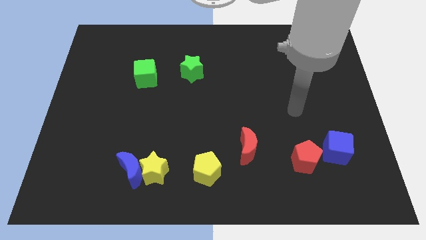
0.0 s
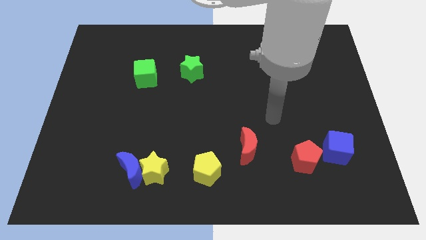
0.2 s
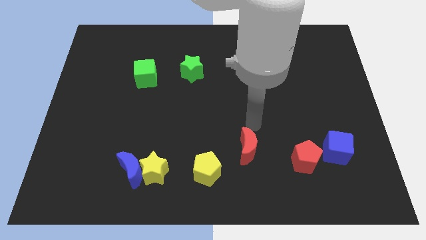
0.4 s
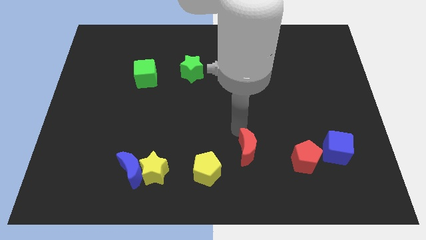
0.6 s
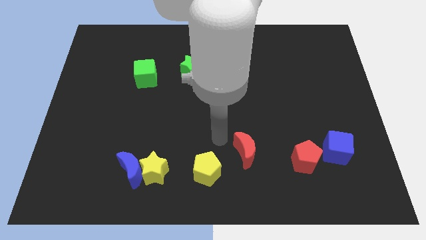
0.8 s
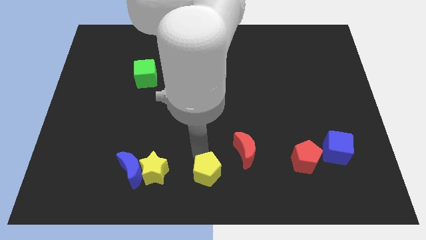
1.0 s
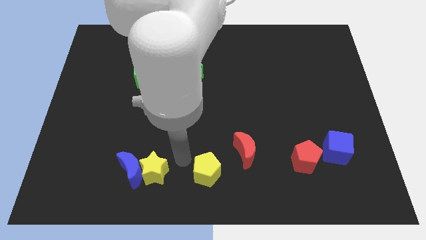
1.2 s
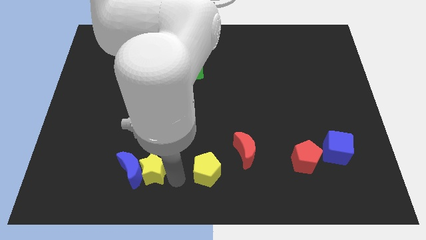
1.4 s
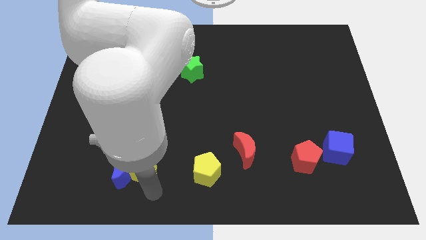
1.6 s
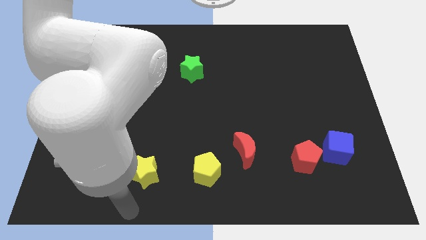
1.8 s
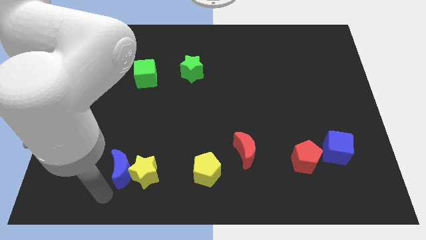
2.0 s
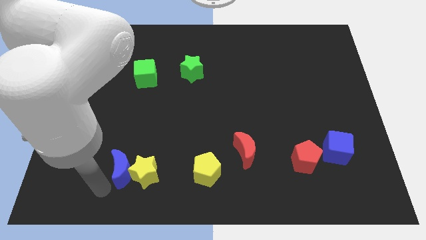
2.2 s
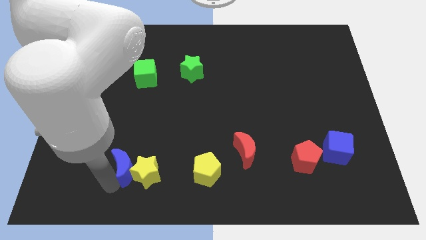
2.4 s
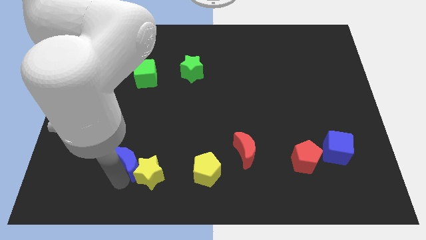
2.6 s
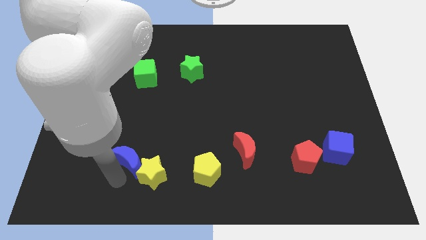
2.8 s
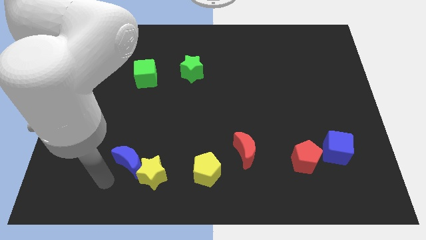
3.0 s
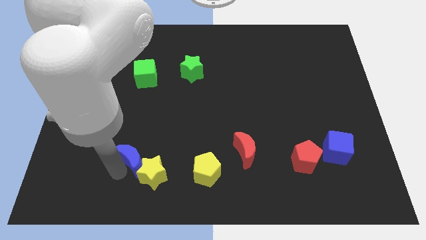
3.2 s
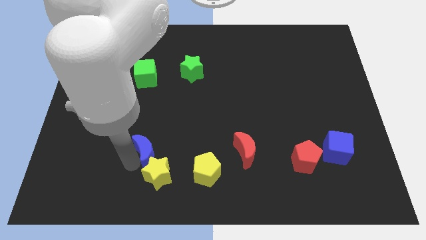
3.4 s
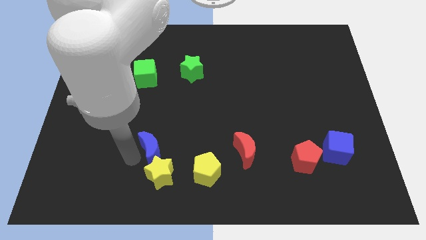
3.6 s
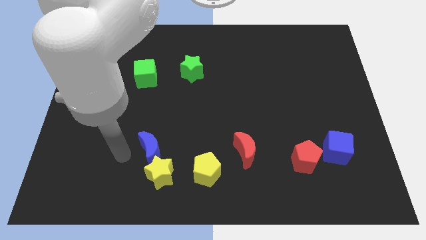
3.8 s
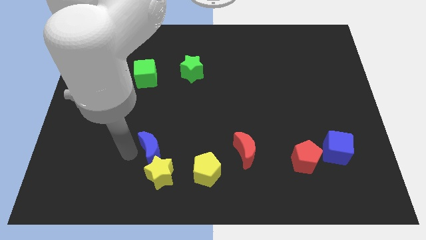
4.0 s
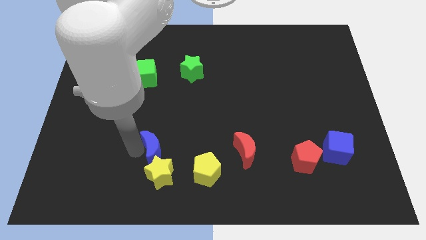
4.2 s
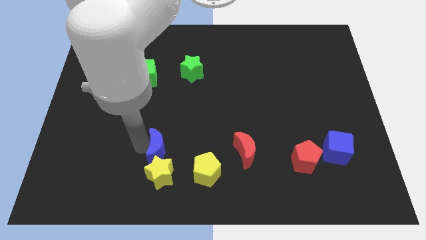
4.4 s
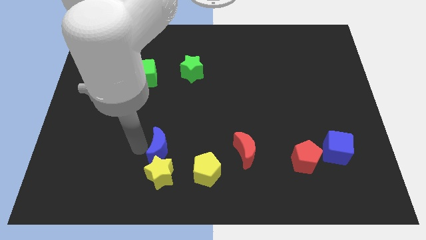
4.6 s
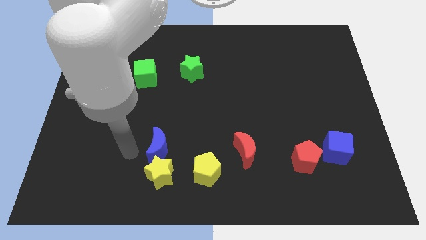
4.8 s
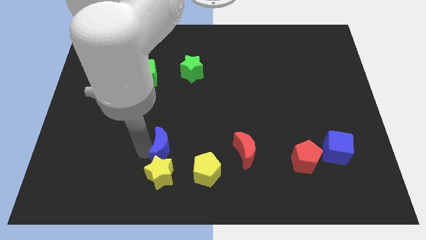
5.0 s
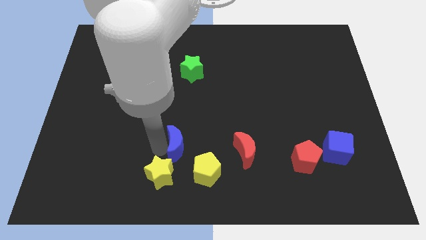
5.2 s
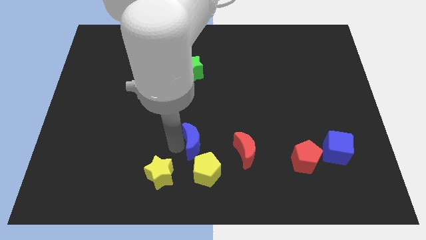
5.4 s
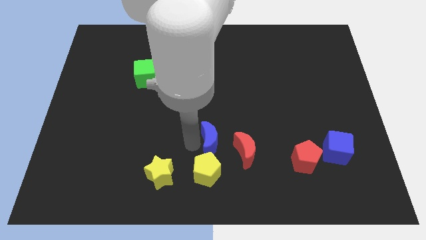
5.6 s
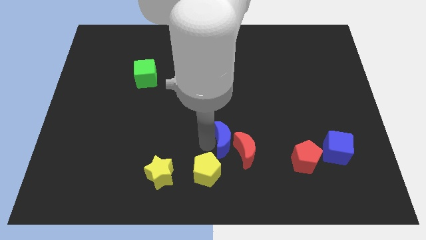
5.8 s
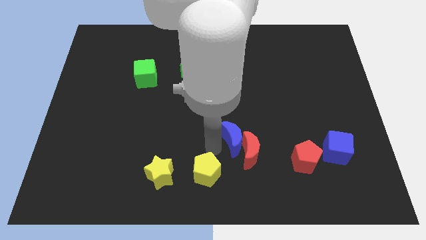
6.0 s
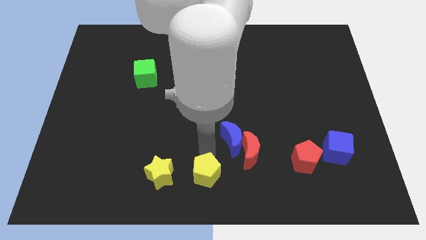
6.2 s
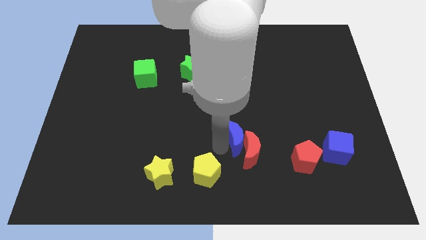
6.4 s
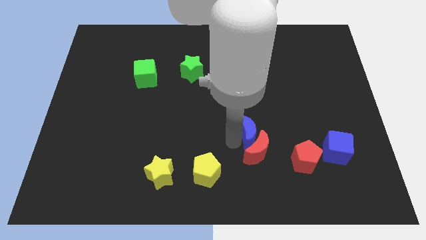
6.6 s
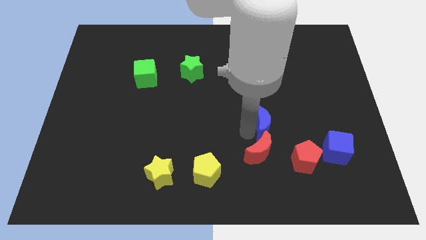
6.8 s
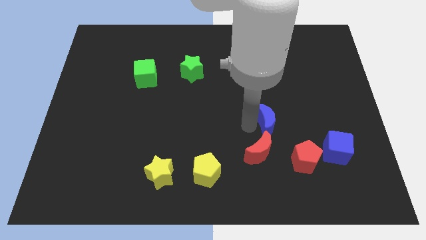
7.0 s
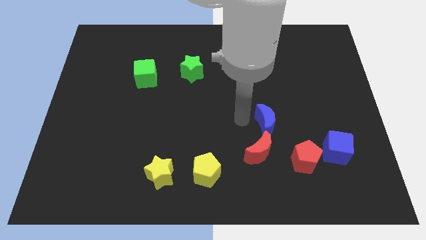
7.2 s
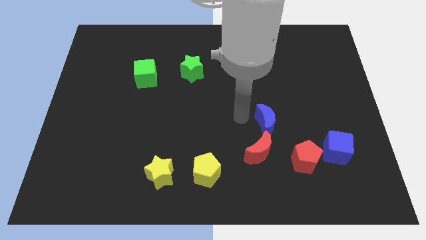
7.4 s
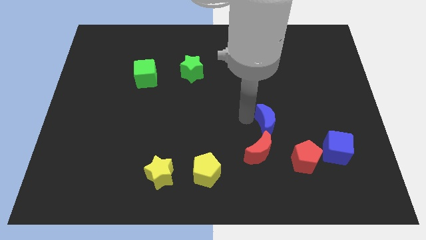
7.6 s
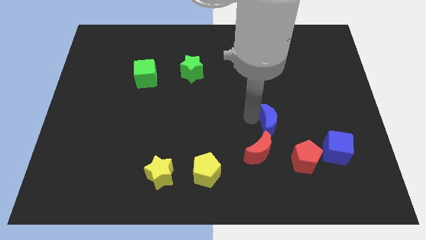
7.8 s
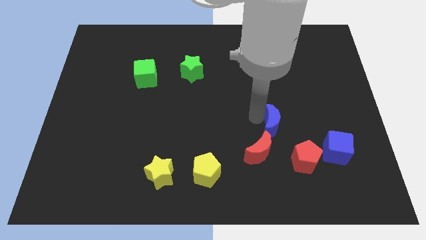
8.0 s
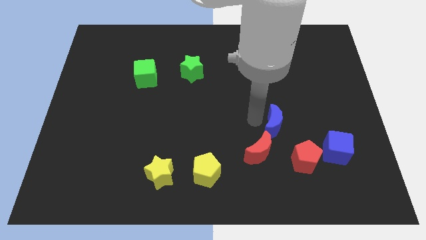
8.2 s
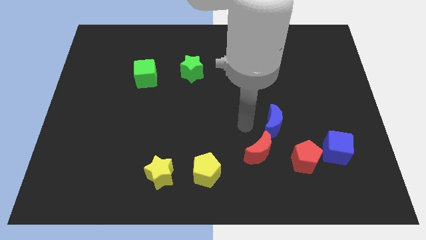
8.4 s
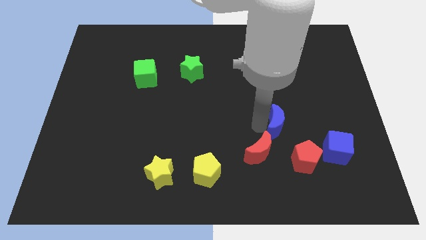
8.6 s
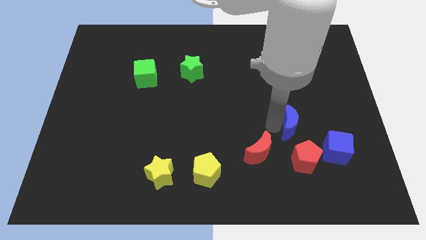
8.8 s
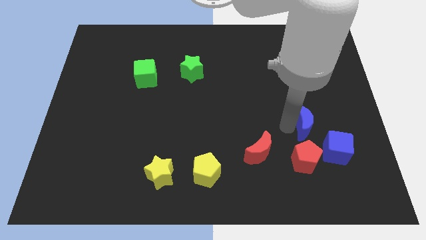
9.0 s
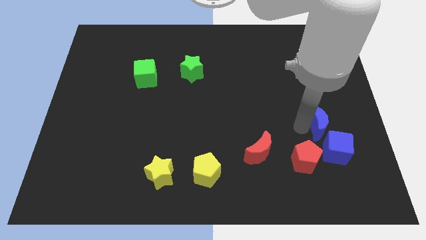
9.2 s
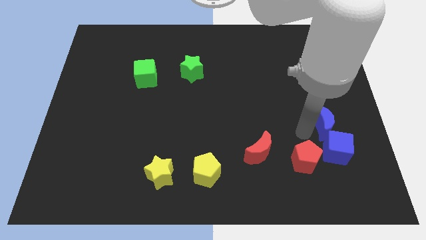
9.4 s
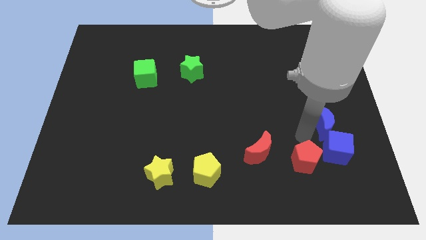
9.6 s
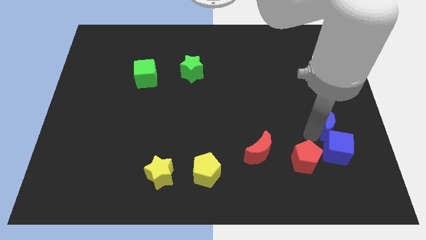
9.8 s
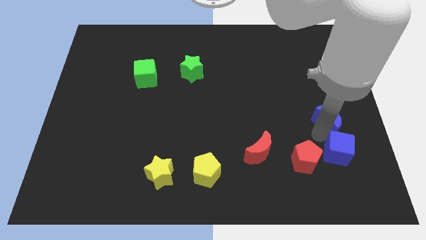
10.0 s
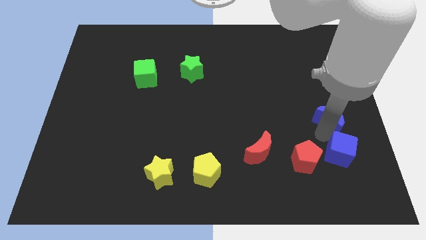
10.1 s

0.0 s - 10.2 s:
slide the blue moon to the right side of the board

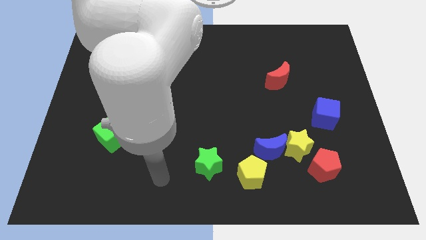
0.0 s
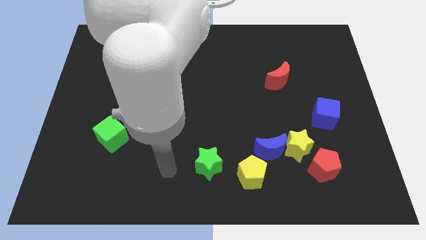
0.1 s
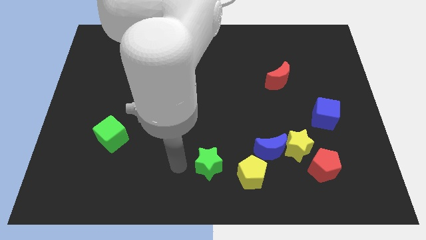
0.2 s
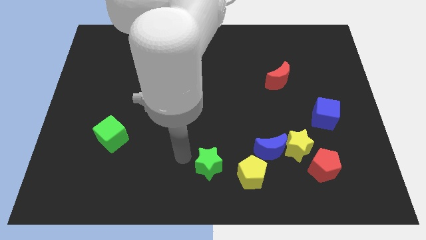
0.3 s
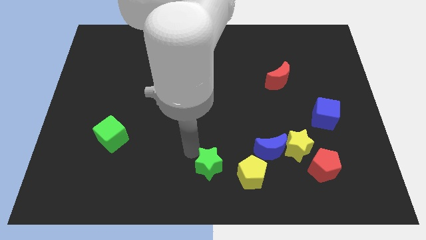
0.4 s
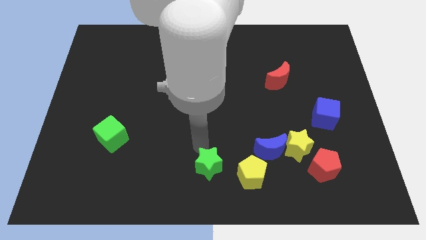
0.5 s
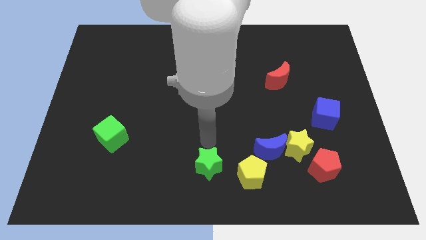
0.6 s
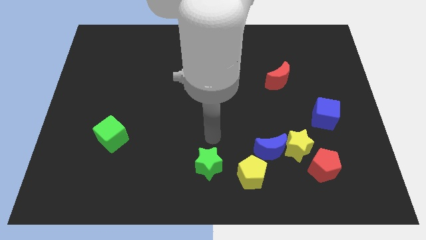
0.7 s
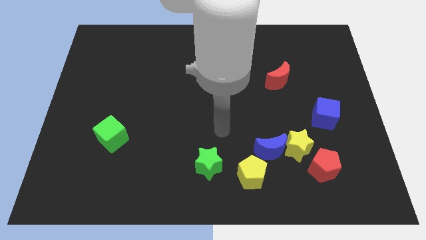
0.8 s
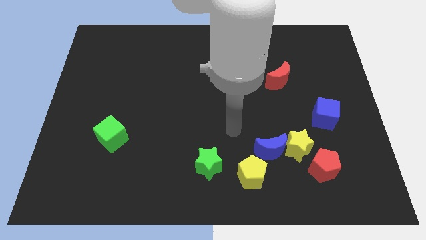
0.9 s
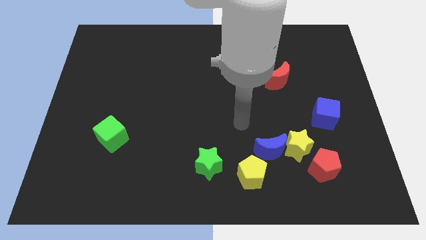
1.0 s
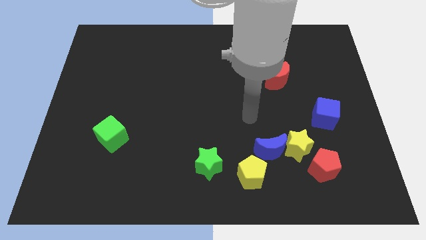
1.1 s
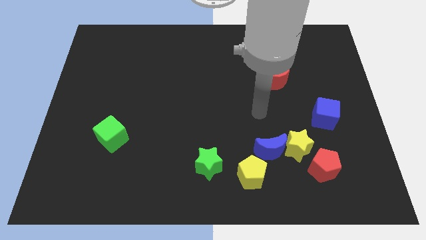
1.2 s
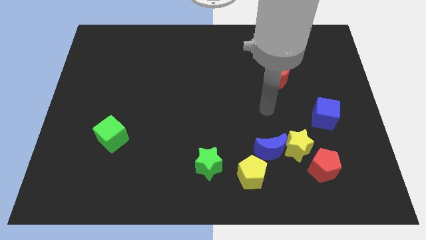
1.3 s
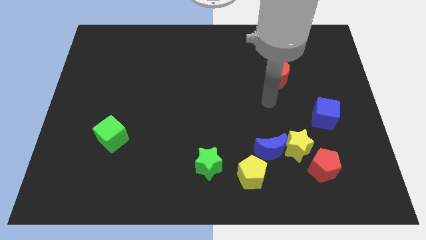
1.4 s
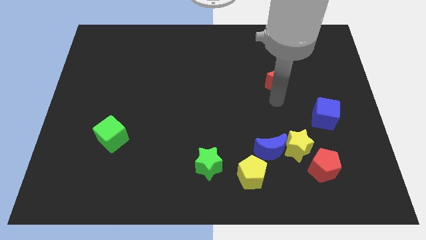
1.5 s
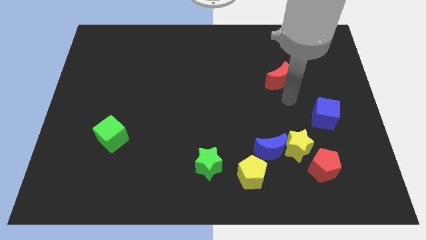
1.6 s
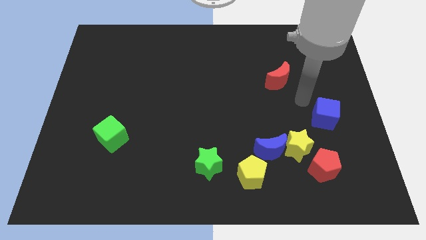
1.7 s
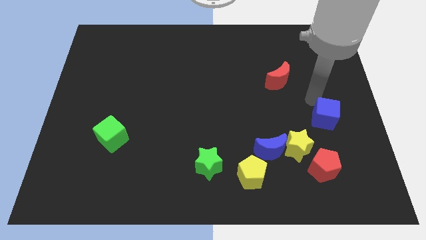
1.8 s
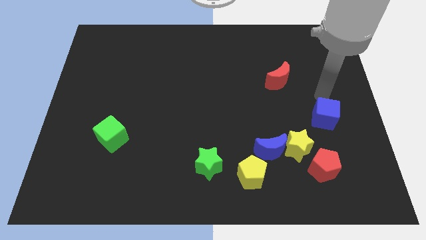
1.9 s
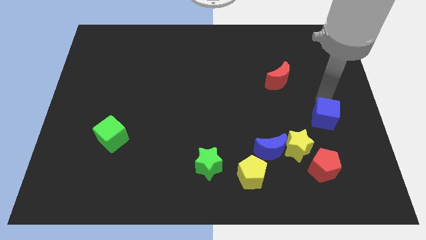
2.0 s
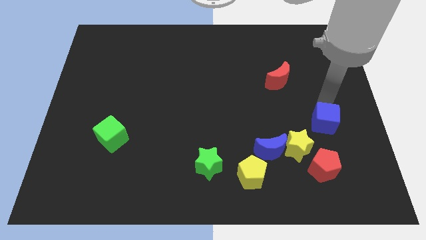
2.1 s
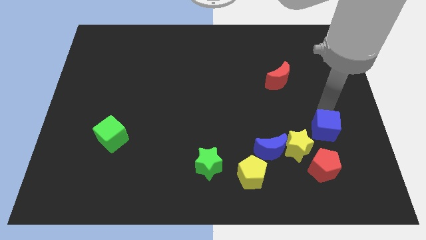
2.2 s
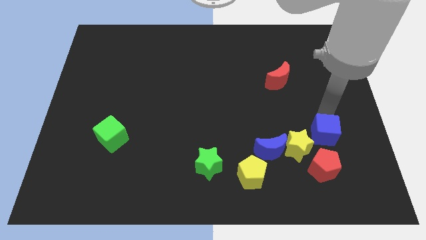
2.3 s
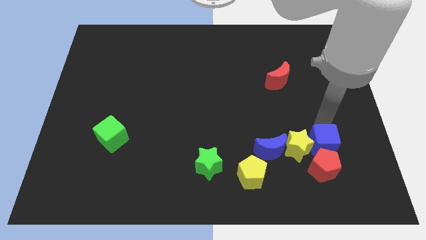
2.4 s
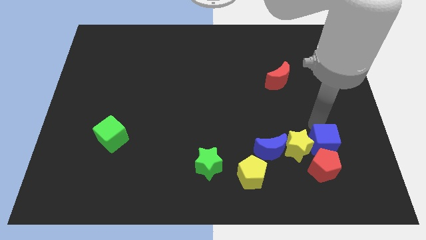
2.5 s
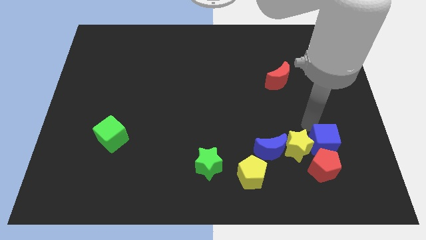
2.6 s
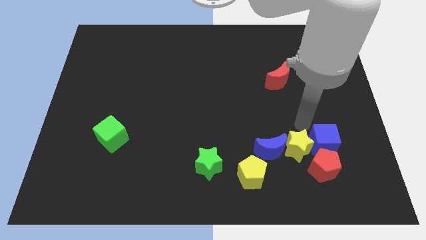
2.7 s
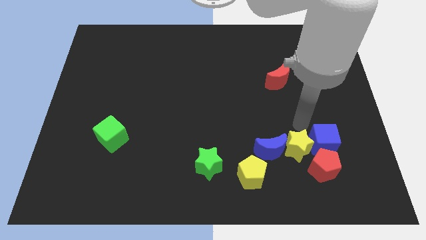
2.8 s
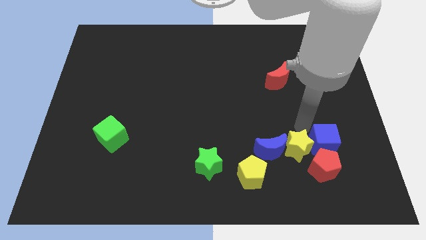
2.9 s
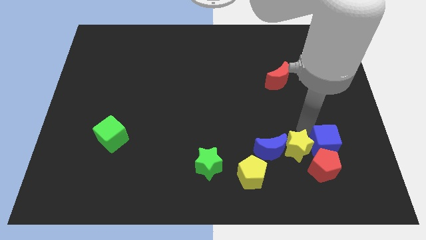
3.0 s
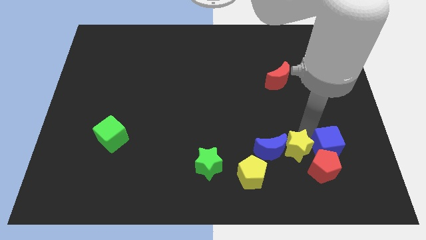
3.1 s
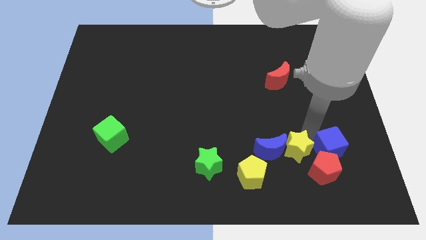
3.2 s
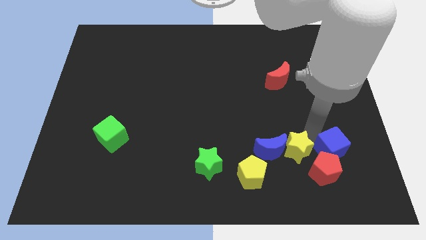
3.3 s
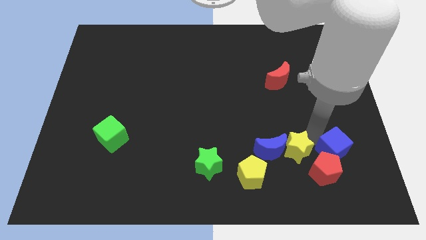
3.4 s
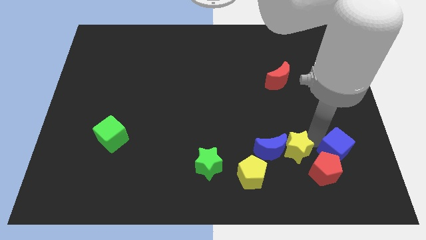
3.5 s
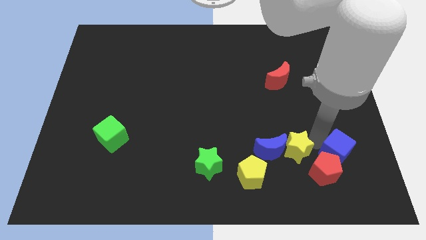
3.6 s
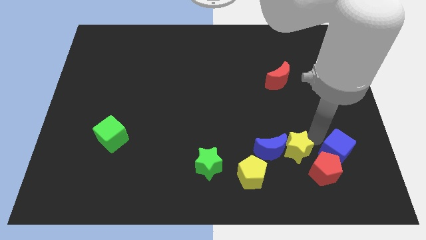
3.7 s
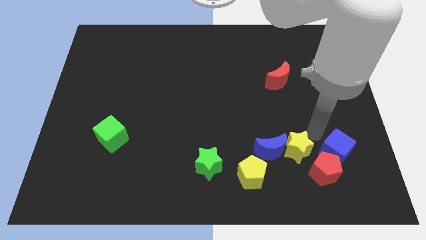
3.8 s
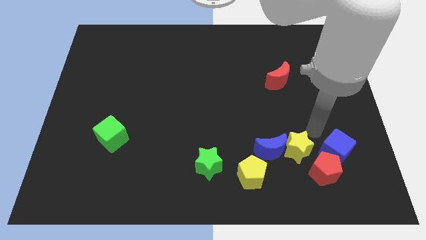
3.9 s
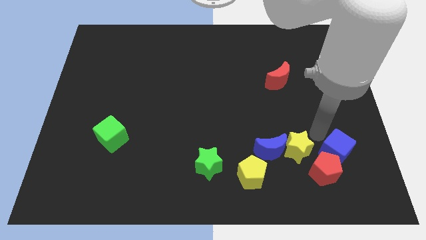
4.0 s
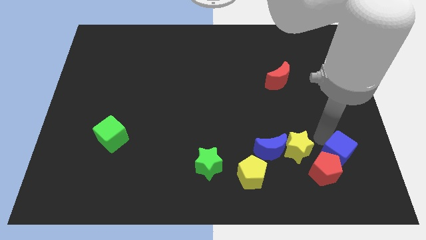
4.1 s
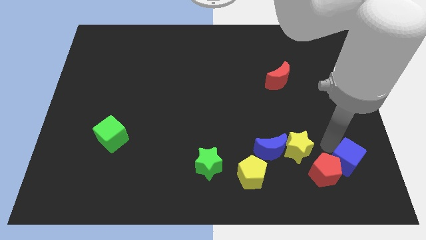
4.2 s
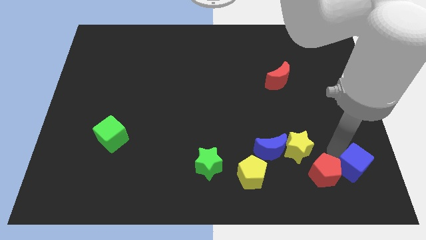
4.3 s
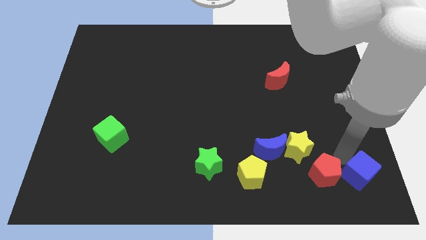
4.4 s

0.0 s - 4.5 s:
put the blue cube to the bottom right corner
